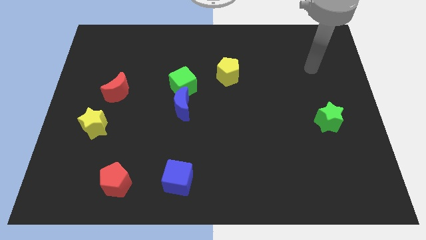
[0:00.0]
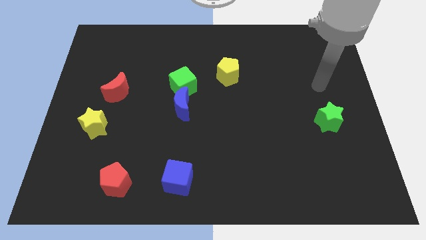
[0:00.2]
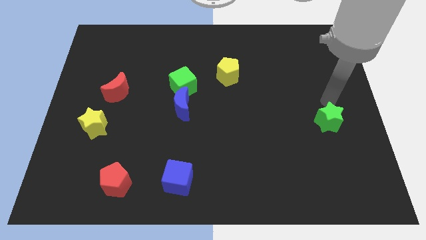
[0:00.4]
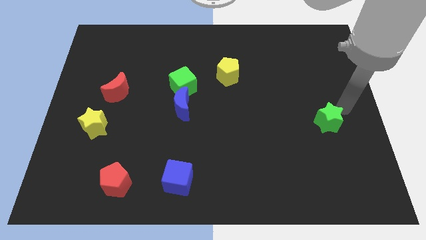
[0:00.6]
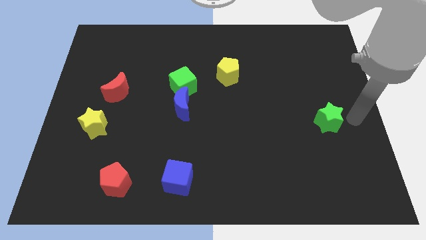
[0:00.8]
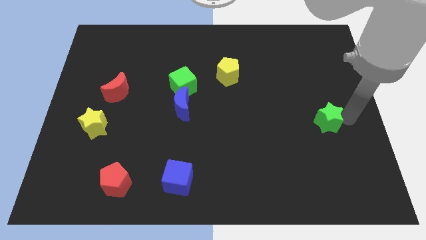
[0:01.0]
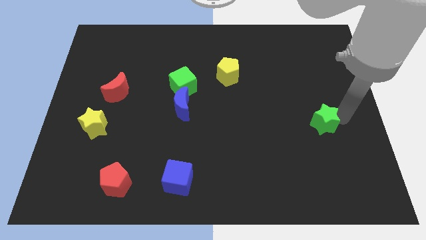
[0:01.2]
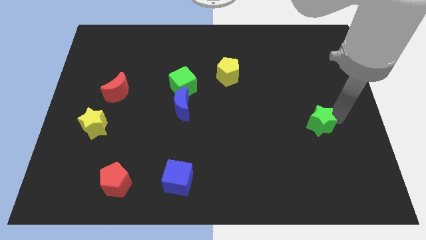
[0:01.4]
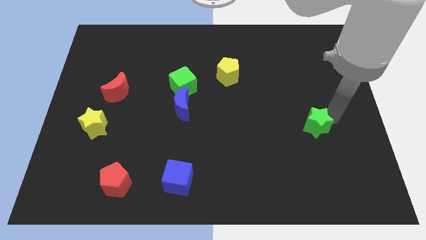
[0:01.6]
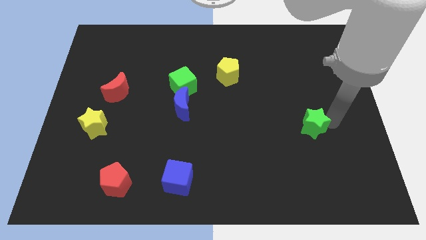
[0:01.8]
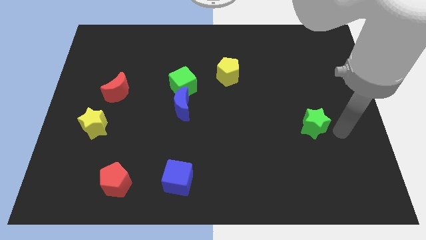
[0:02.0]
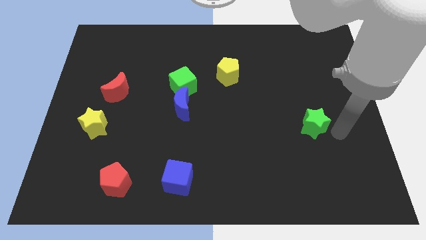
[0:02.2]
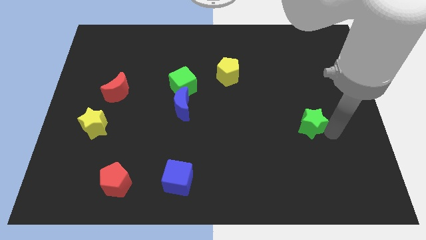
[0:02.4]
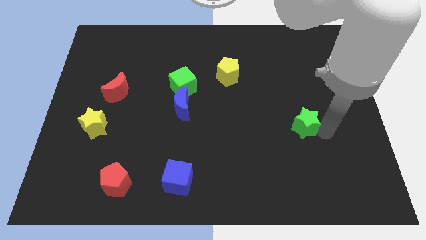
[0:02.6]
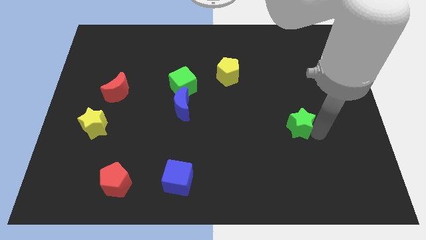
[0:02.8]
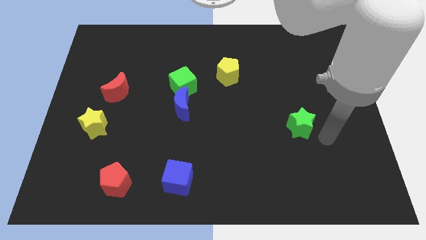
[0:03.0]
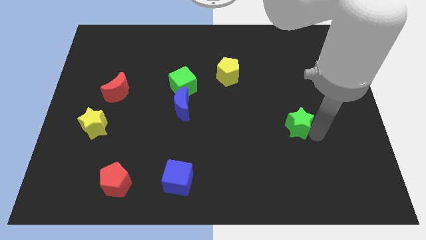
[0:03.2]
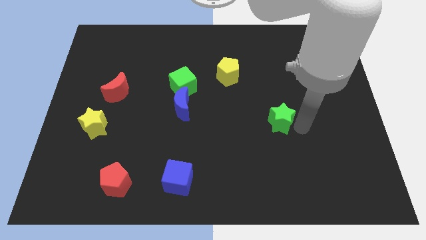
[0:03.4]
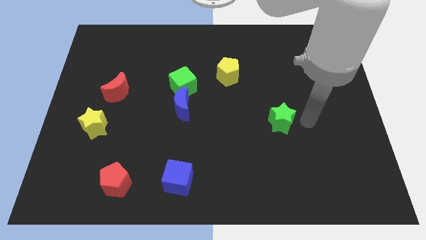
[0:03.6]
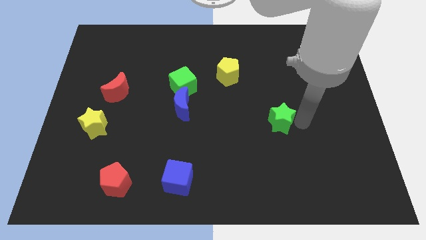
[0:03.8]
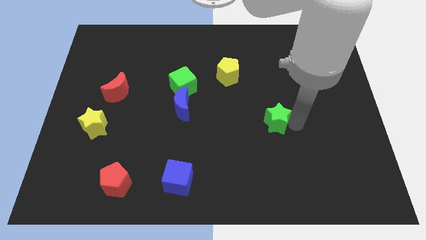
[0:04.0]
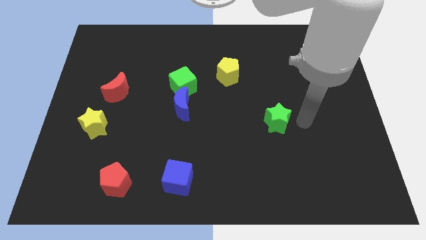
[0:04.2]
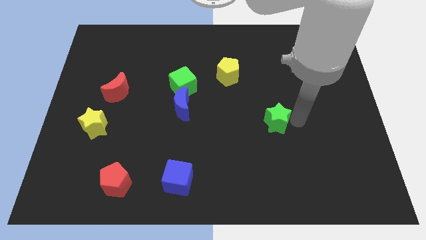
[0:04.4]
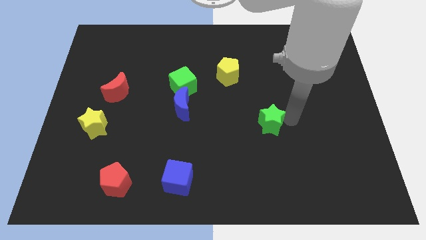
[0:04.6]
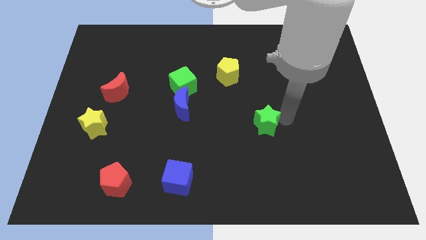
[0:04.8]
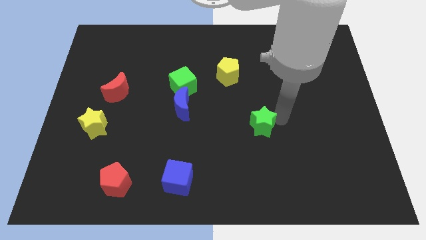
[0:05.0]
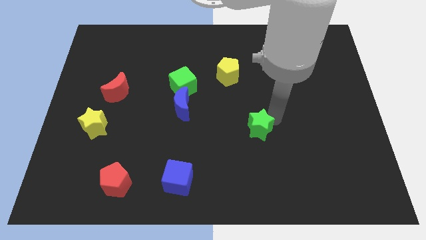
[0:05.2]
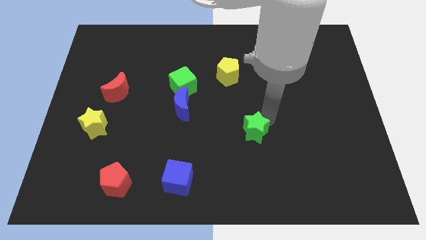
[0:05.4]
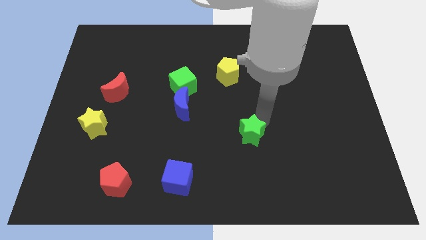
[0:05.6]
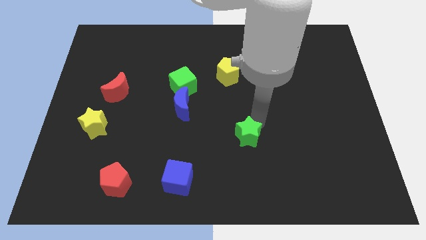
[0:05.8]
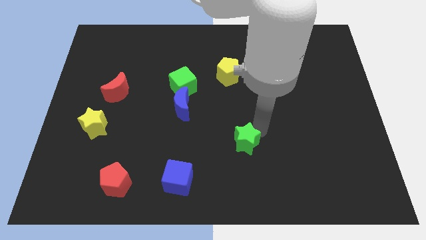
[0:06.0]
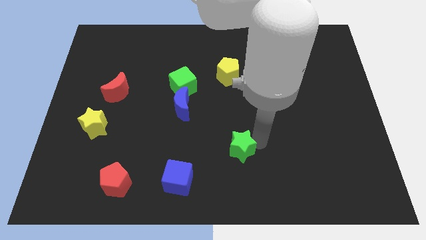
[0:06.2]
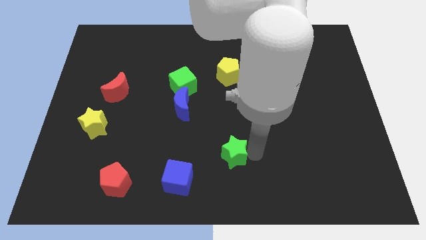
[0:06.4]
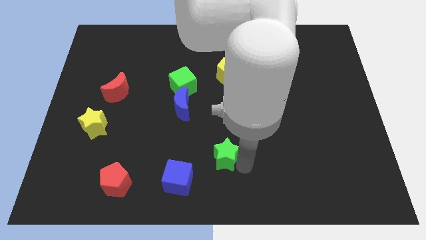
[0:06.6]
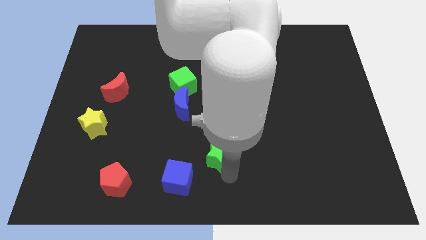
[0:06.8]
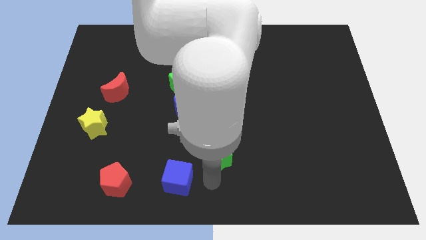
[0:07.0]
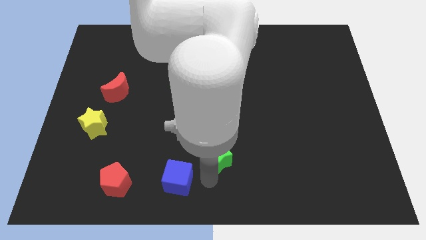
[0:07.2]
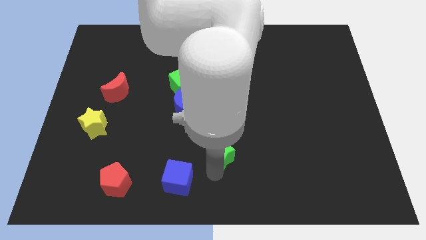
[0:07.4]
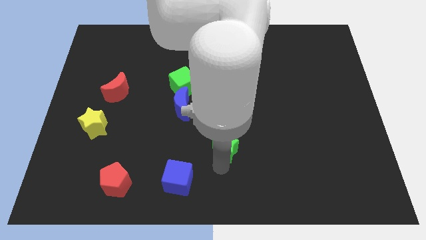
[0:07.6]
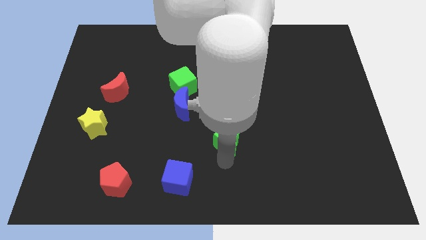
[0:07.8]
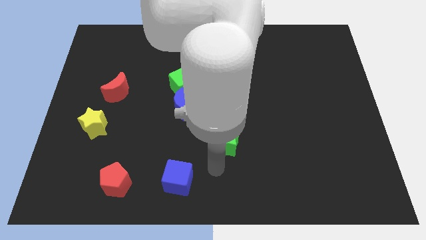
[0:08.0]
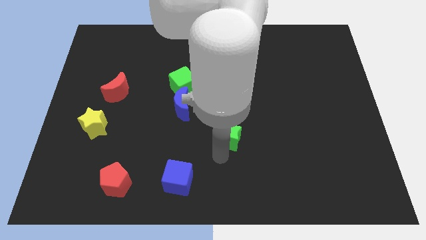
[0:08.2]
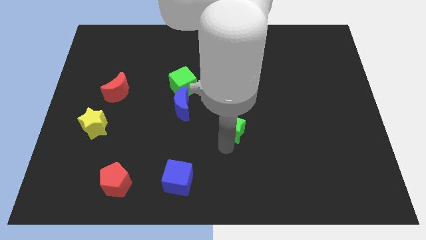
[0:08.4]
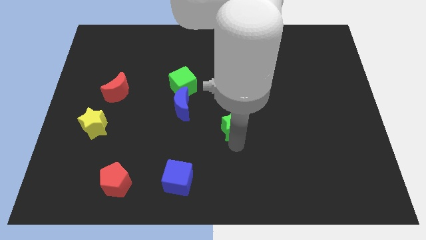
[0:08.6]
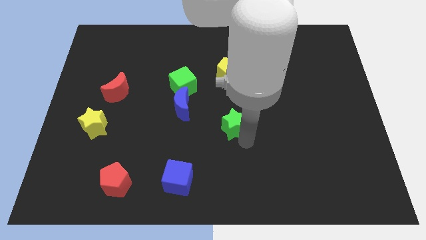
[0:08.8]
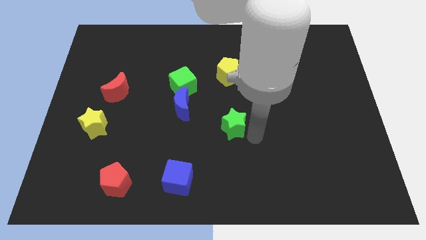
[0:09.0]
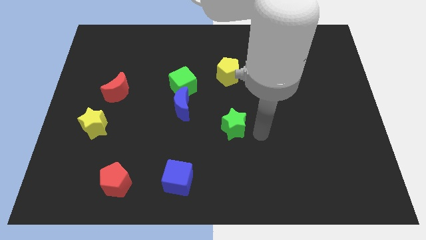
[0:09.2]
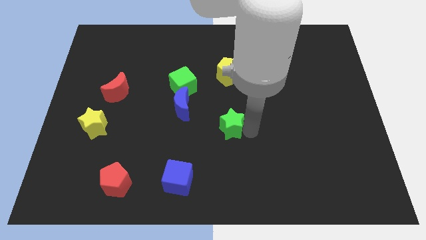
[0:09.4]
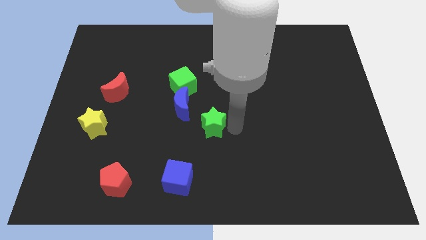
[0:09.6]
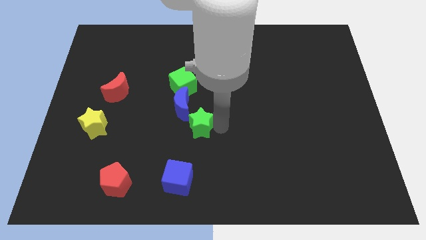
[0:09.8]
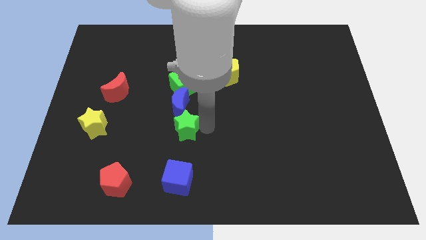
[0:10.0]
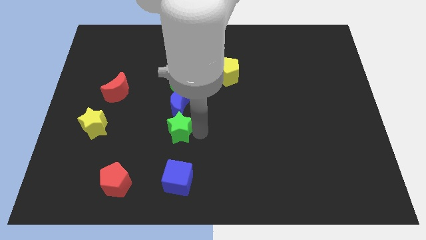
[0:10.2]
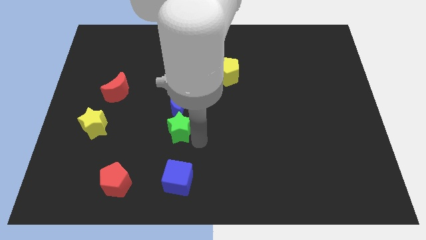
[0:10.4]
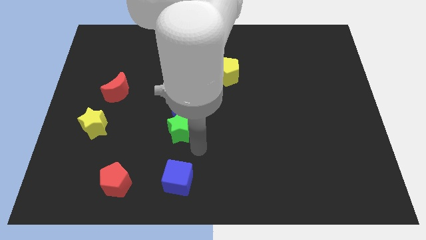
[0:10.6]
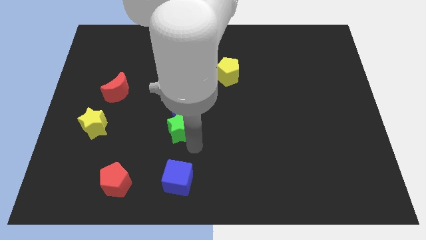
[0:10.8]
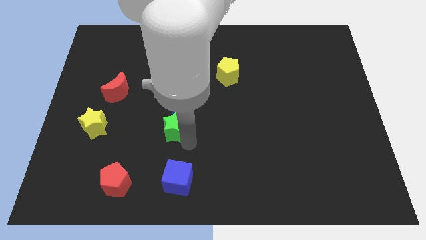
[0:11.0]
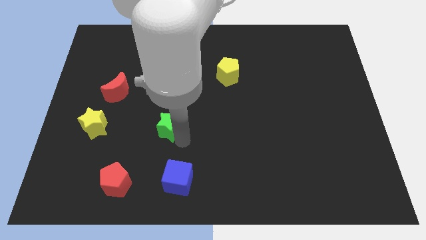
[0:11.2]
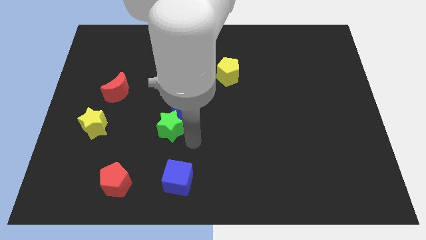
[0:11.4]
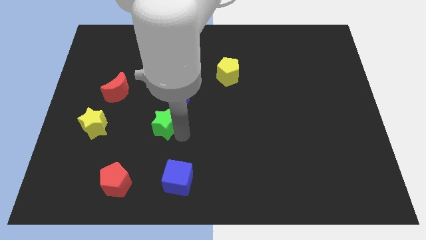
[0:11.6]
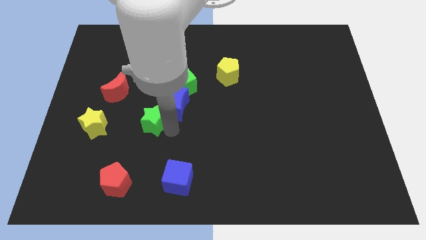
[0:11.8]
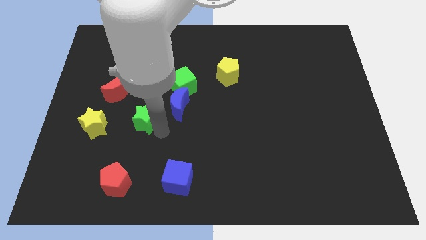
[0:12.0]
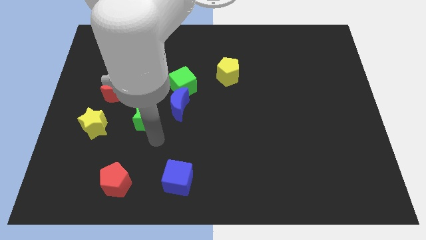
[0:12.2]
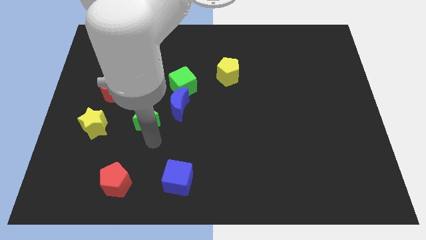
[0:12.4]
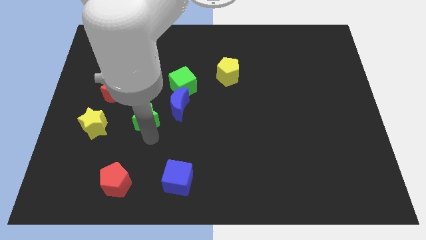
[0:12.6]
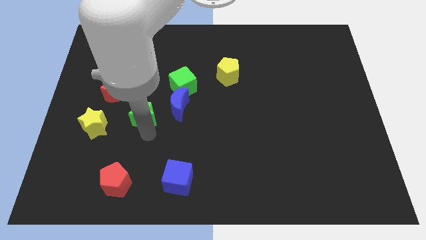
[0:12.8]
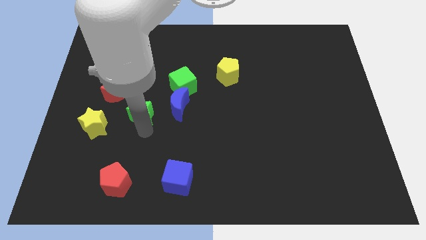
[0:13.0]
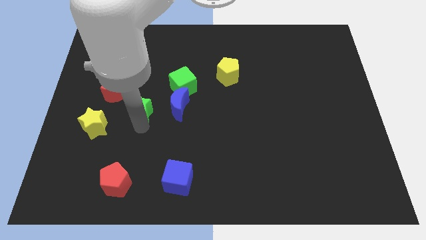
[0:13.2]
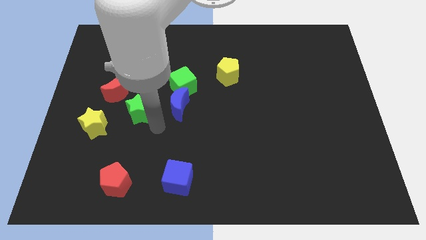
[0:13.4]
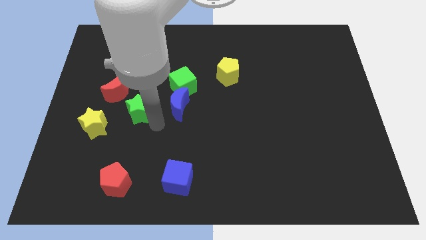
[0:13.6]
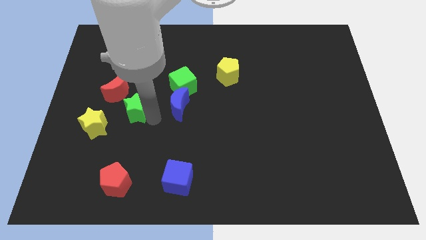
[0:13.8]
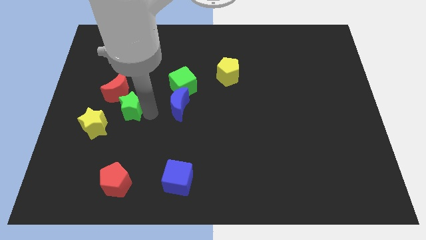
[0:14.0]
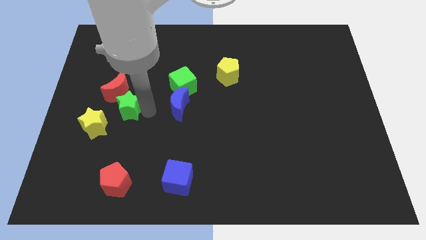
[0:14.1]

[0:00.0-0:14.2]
slide the green star to the red moon

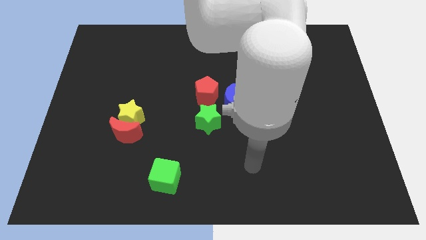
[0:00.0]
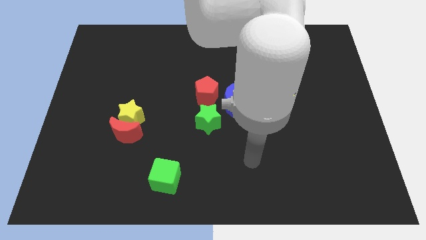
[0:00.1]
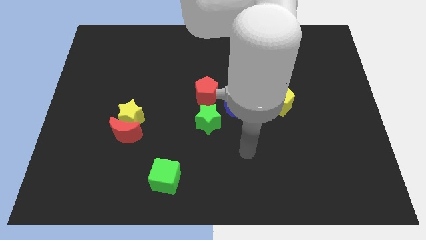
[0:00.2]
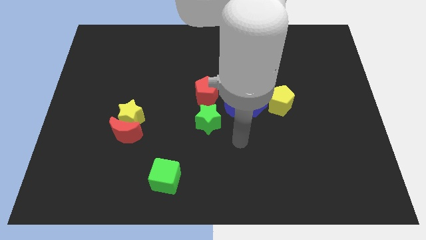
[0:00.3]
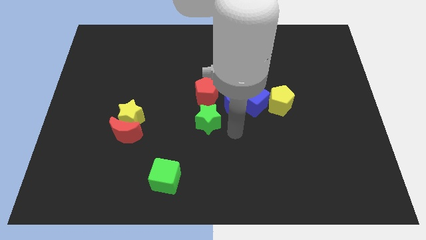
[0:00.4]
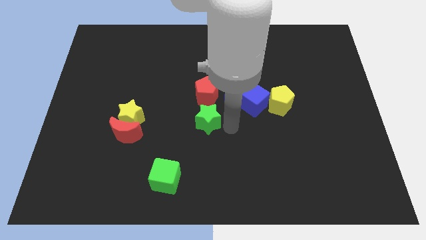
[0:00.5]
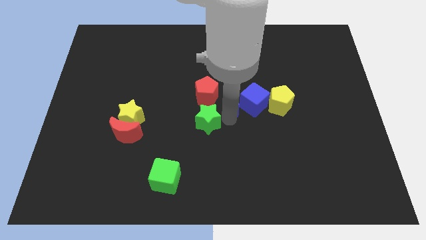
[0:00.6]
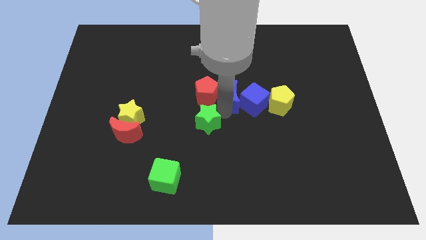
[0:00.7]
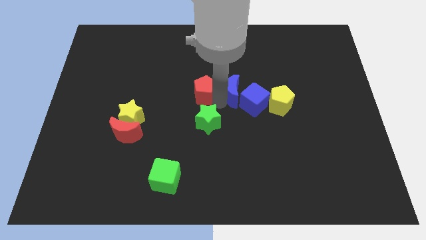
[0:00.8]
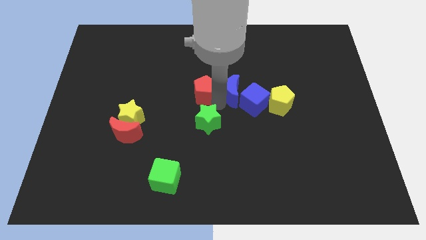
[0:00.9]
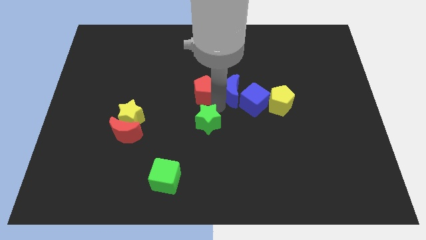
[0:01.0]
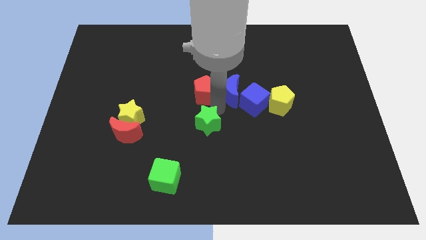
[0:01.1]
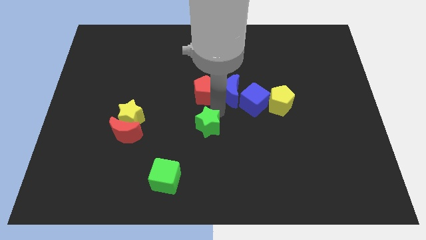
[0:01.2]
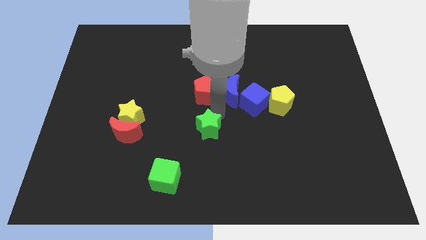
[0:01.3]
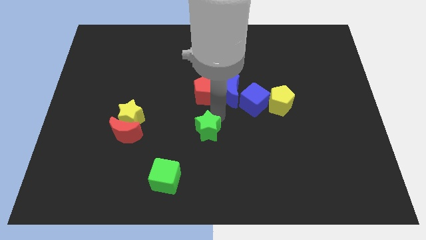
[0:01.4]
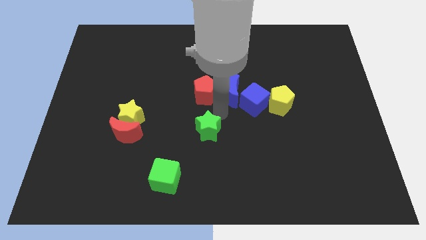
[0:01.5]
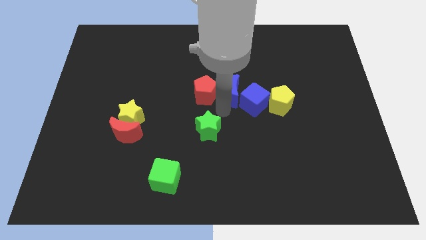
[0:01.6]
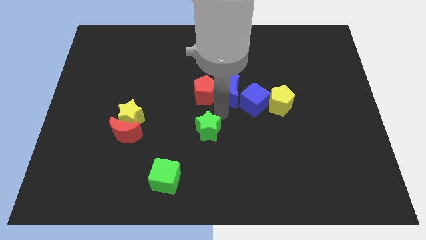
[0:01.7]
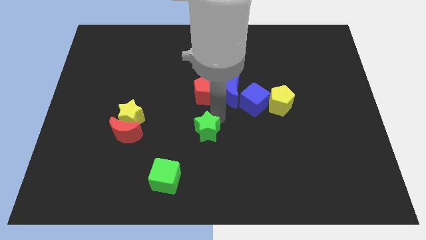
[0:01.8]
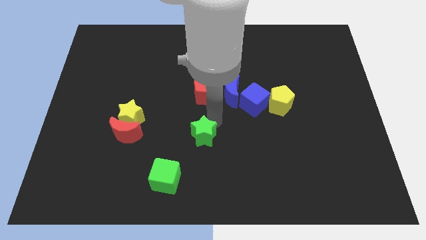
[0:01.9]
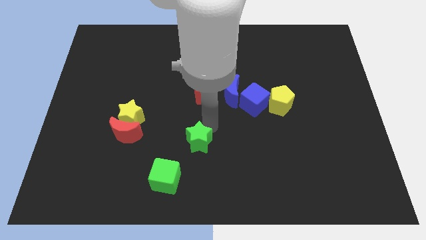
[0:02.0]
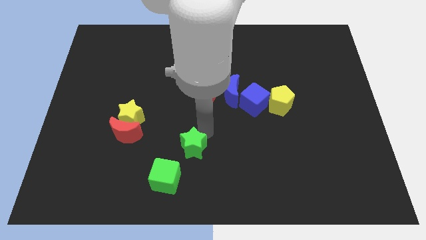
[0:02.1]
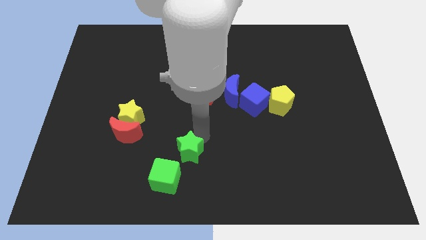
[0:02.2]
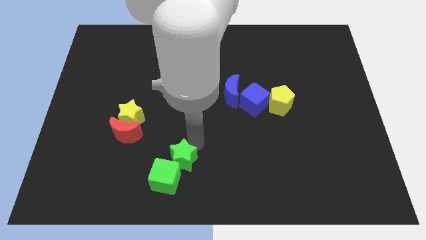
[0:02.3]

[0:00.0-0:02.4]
slide the green star towards the green cube
